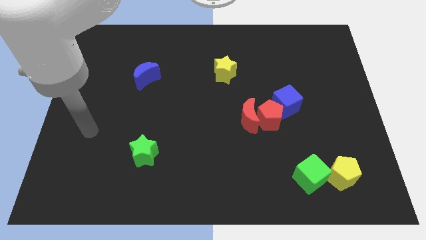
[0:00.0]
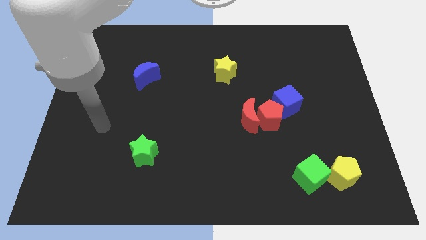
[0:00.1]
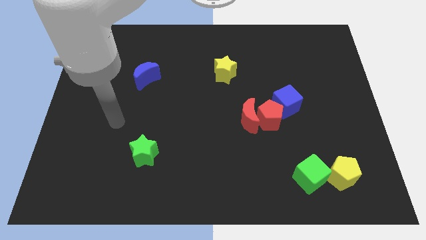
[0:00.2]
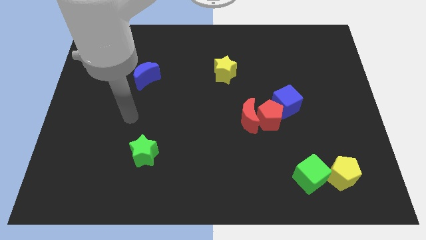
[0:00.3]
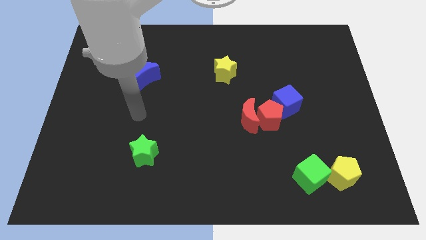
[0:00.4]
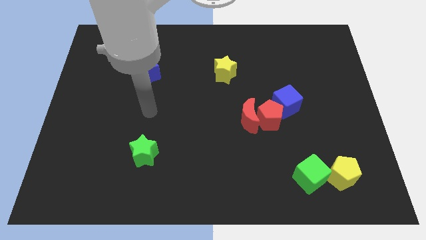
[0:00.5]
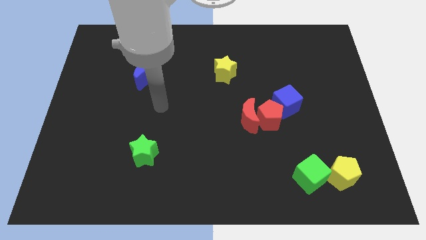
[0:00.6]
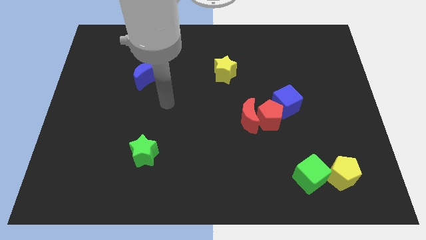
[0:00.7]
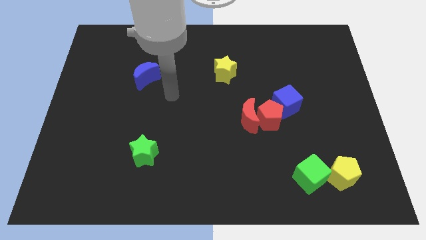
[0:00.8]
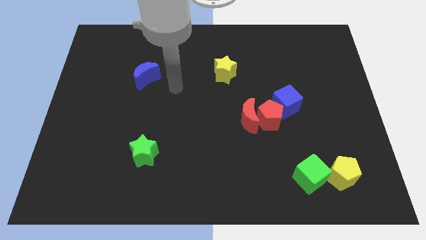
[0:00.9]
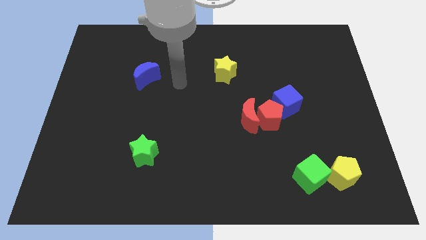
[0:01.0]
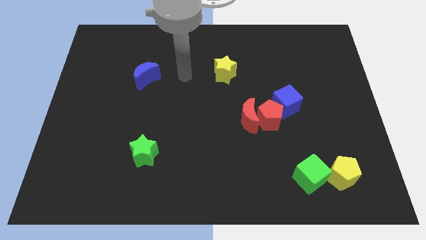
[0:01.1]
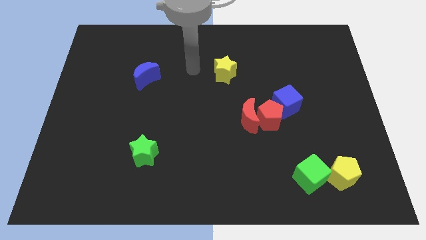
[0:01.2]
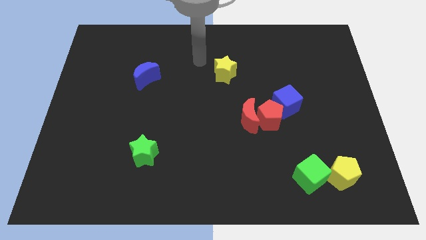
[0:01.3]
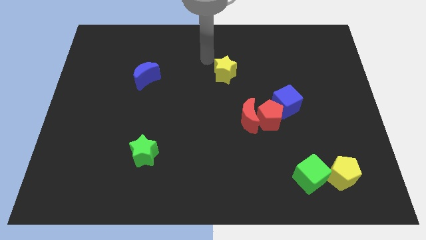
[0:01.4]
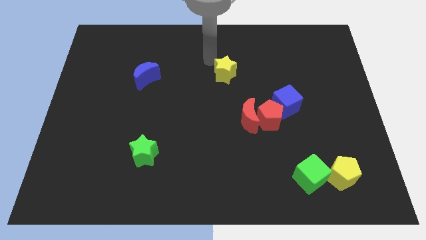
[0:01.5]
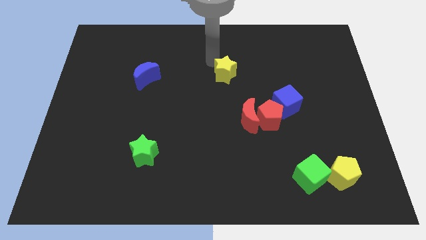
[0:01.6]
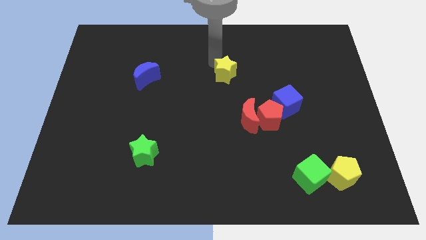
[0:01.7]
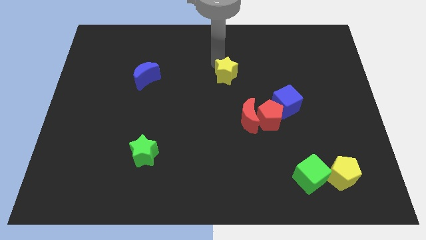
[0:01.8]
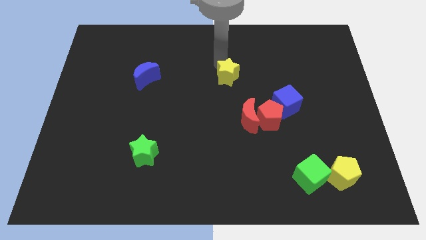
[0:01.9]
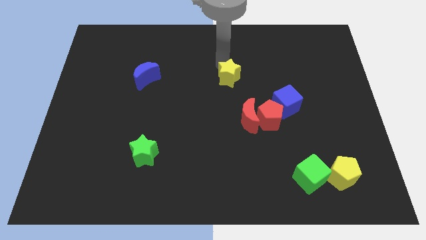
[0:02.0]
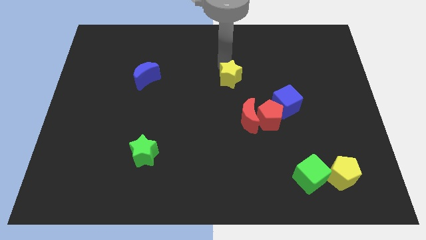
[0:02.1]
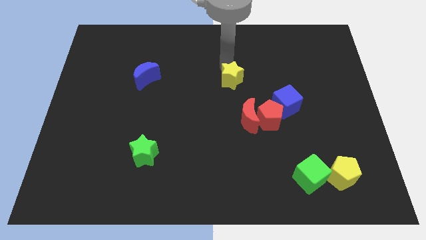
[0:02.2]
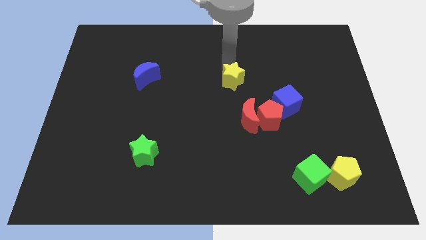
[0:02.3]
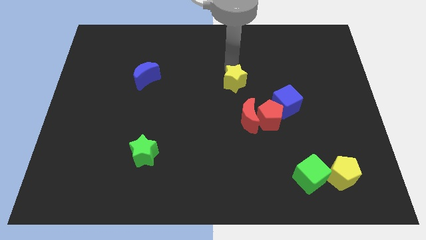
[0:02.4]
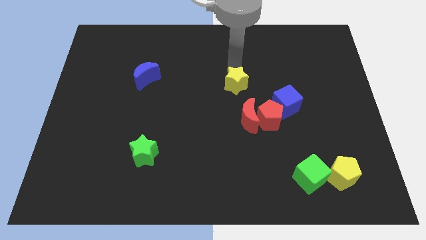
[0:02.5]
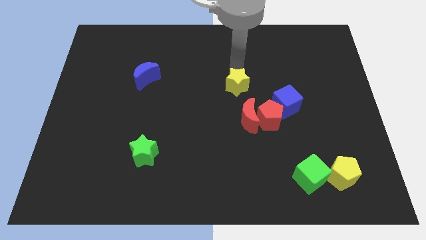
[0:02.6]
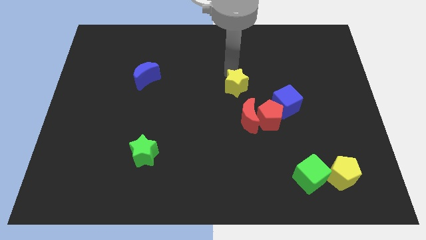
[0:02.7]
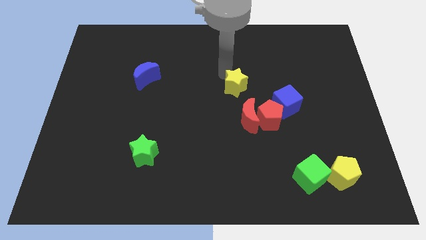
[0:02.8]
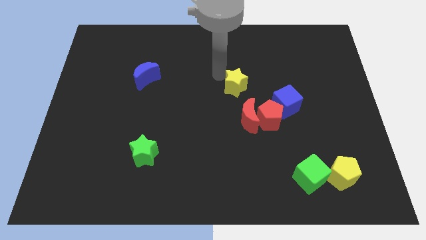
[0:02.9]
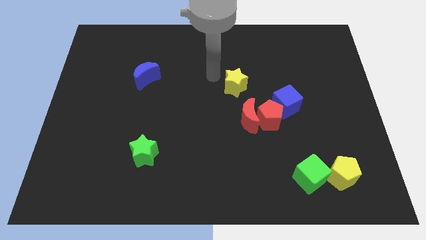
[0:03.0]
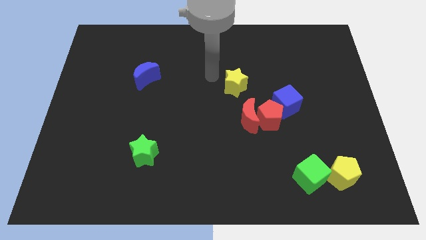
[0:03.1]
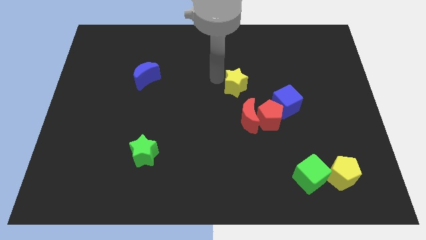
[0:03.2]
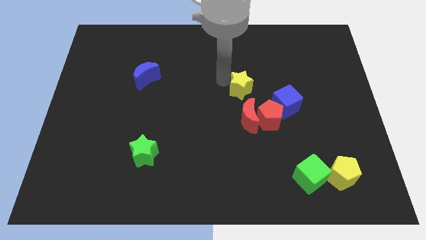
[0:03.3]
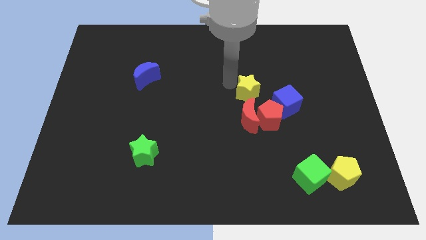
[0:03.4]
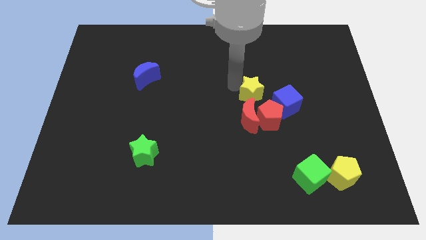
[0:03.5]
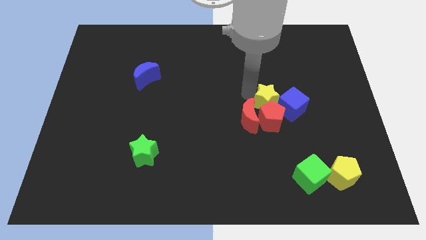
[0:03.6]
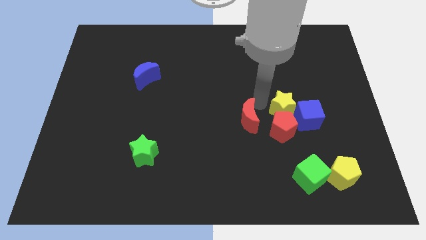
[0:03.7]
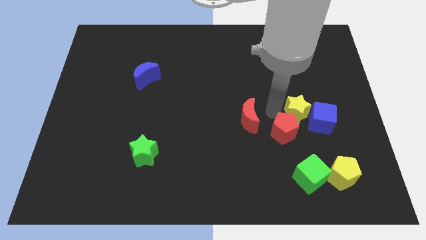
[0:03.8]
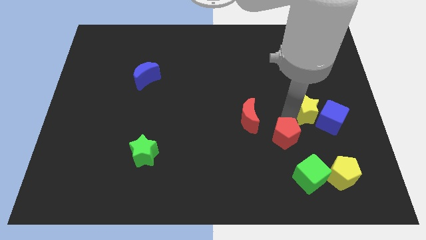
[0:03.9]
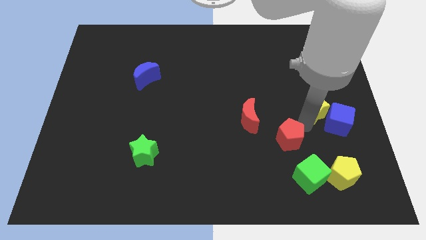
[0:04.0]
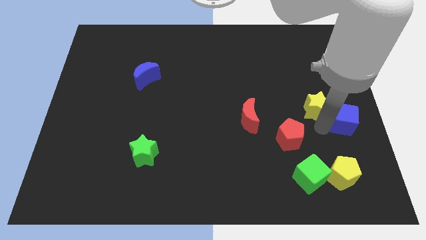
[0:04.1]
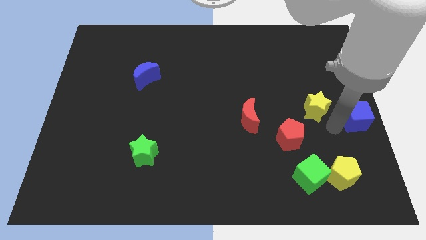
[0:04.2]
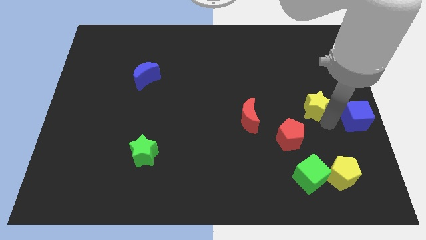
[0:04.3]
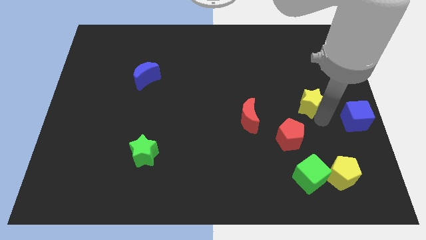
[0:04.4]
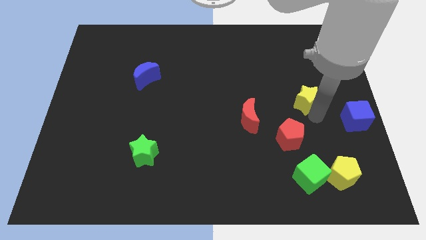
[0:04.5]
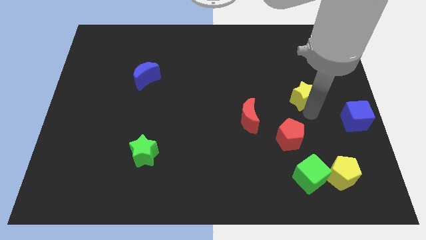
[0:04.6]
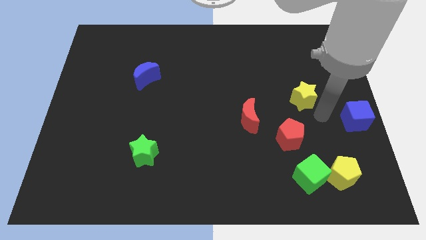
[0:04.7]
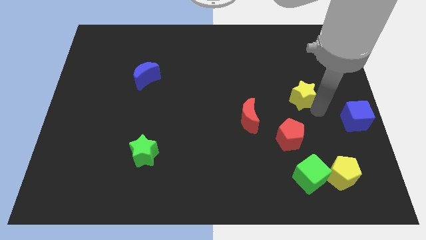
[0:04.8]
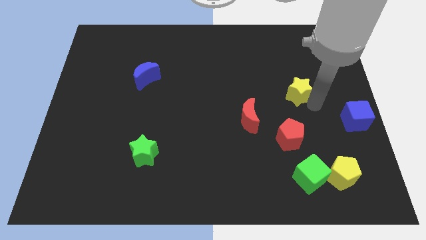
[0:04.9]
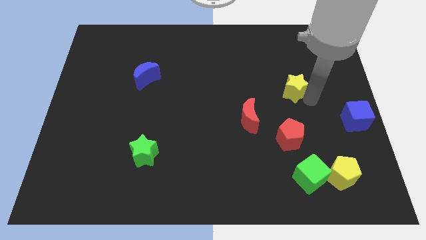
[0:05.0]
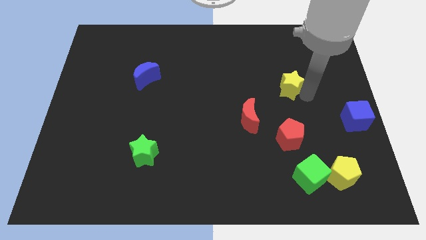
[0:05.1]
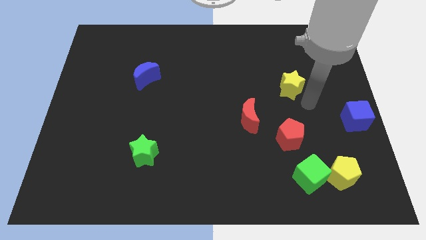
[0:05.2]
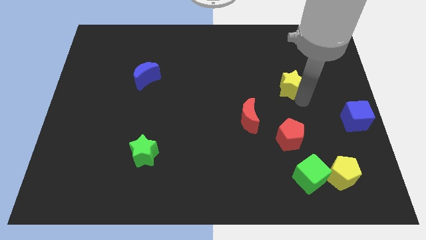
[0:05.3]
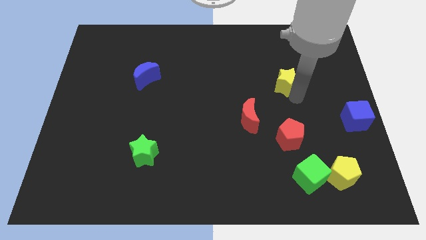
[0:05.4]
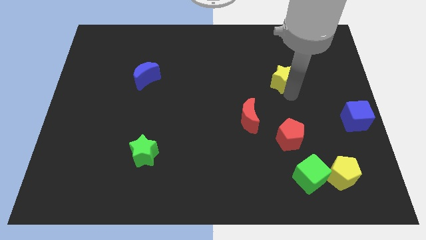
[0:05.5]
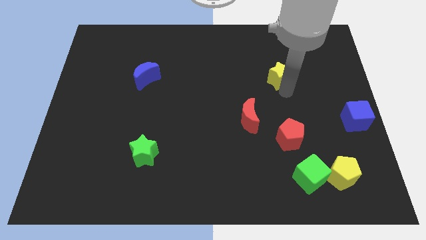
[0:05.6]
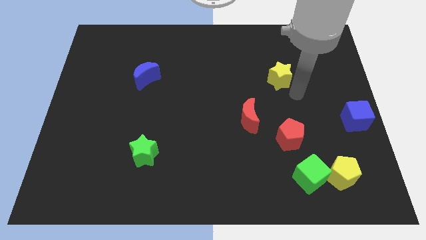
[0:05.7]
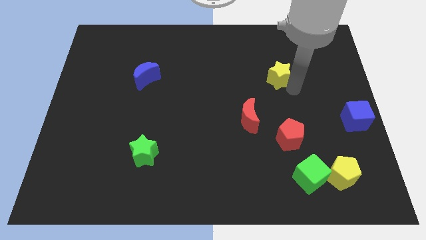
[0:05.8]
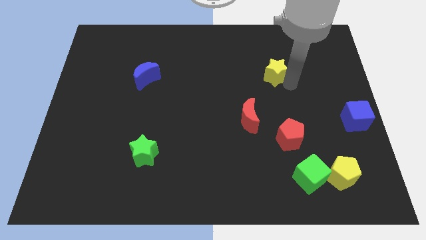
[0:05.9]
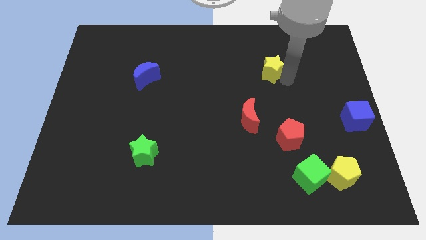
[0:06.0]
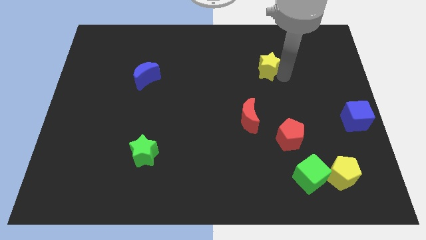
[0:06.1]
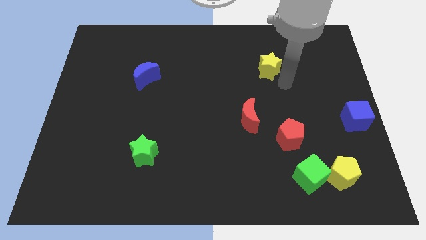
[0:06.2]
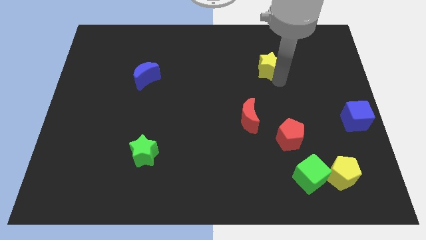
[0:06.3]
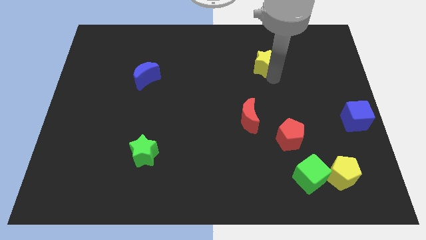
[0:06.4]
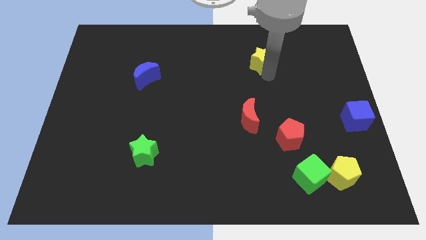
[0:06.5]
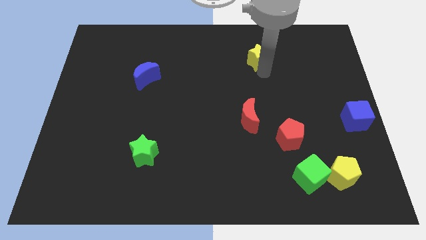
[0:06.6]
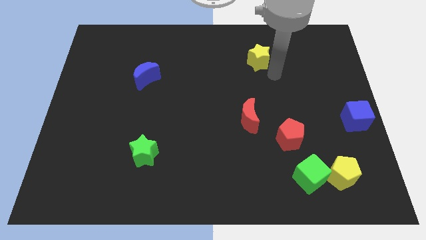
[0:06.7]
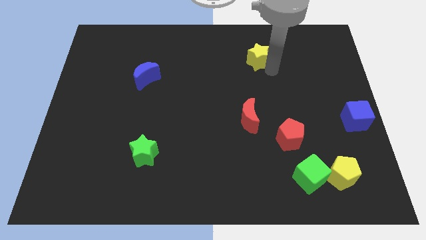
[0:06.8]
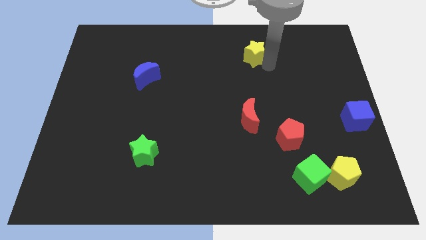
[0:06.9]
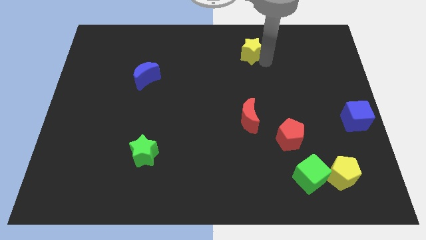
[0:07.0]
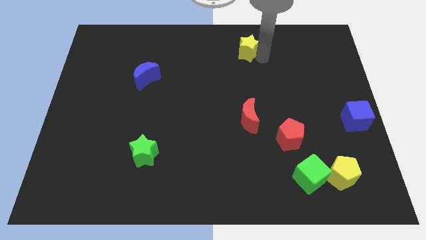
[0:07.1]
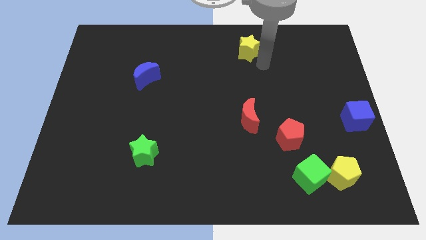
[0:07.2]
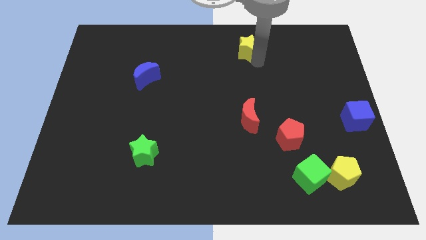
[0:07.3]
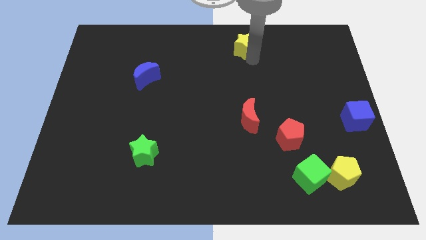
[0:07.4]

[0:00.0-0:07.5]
put the yellow star to the top
